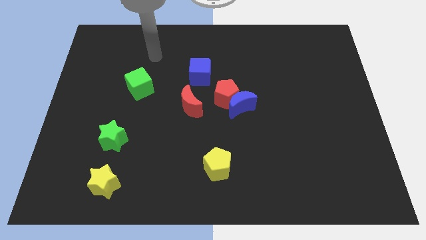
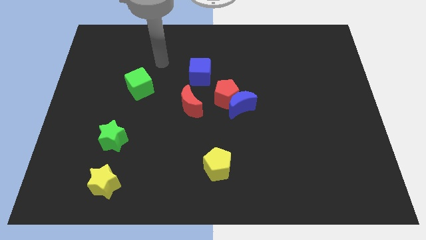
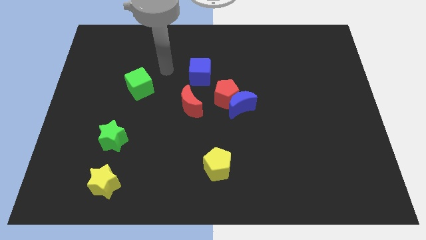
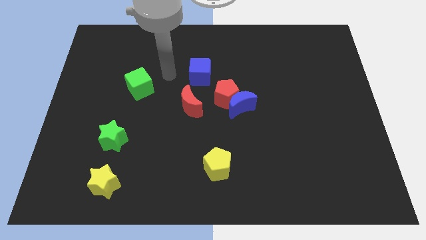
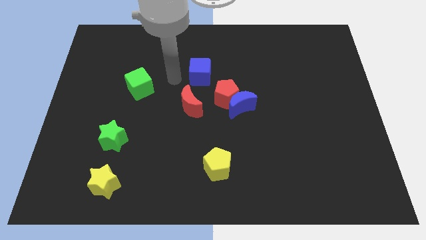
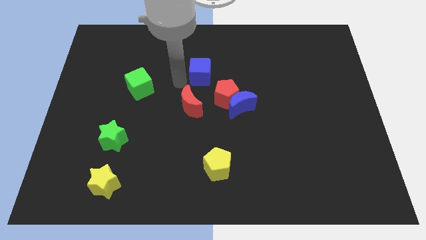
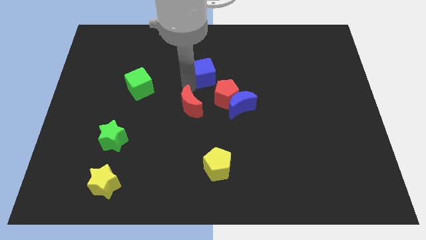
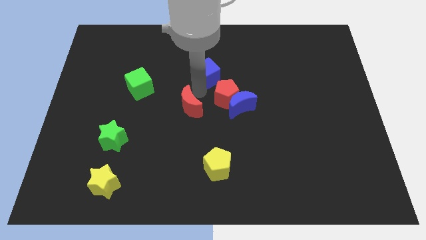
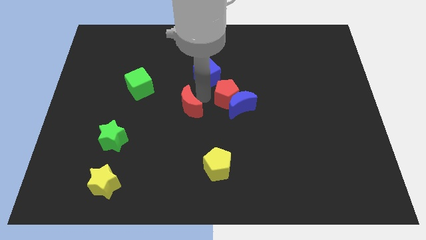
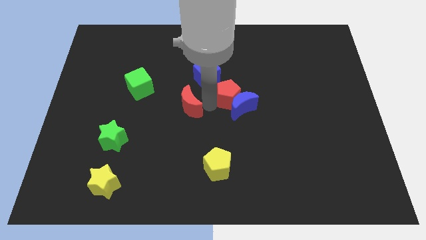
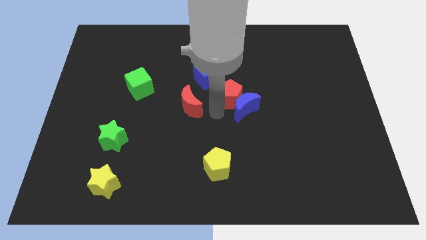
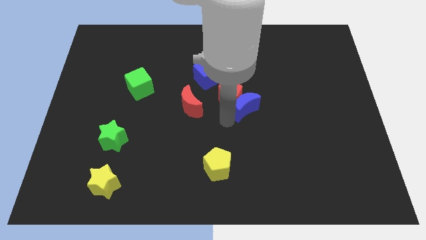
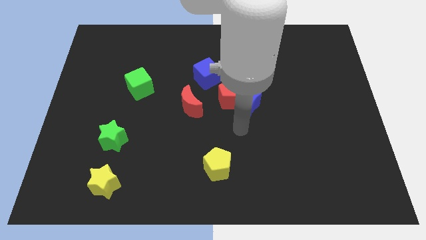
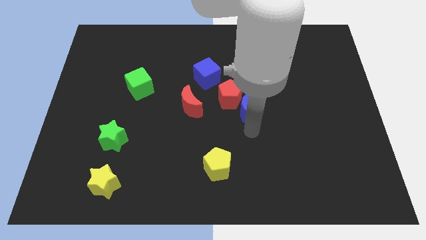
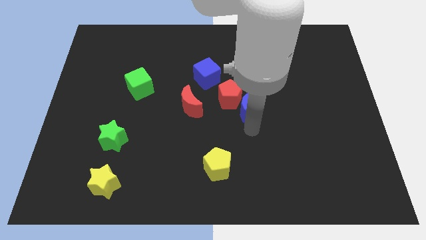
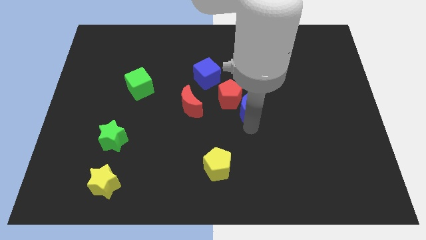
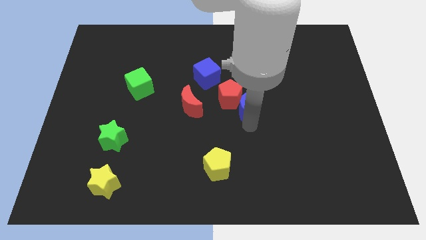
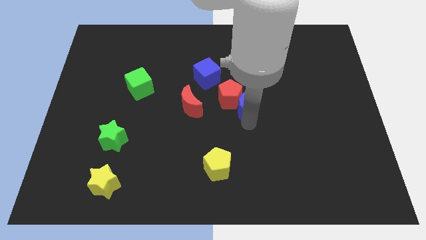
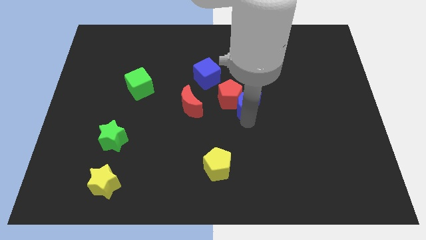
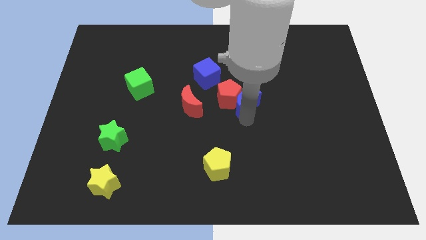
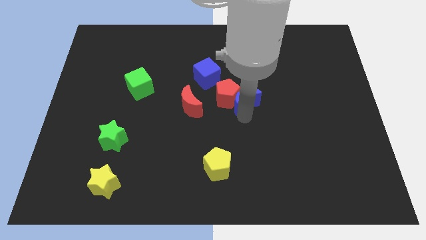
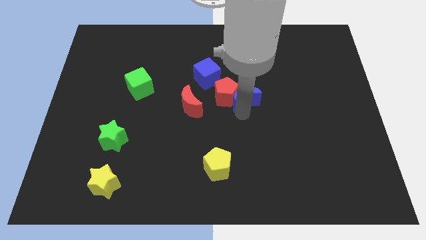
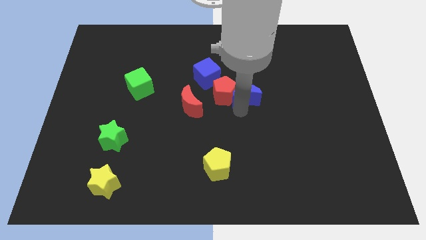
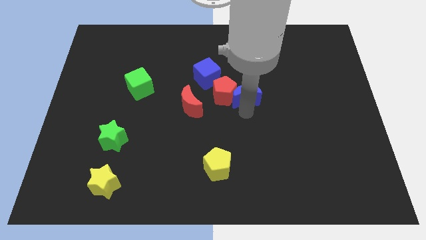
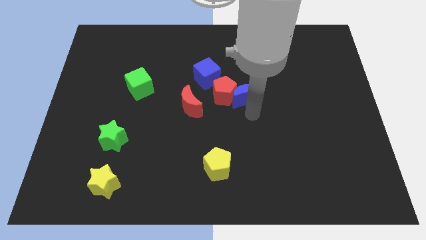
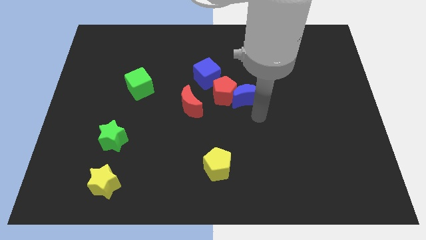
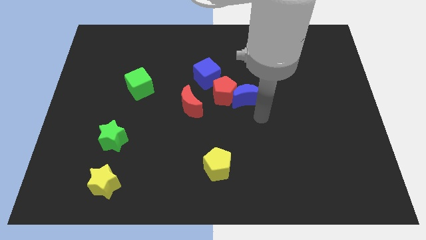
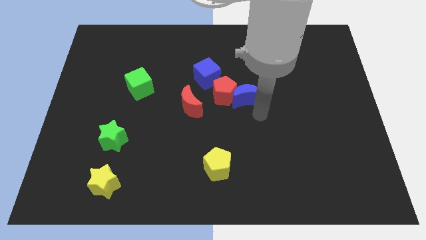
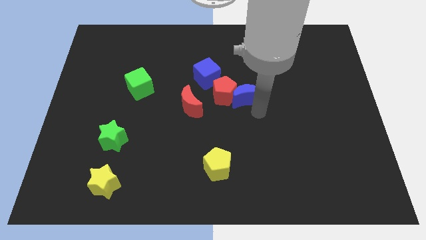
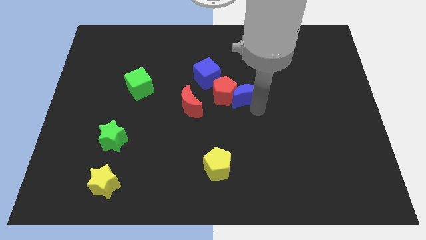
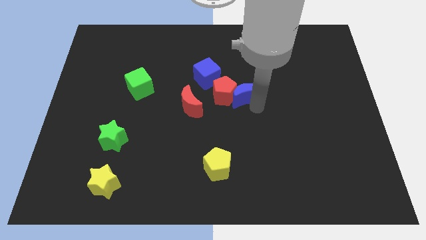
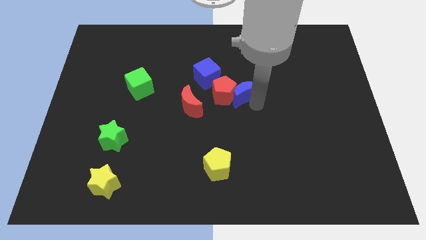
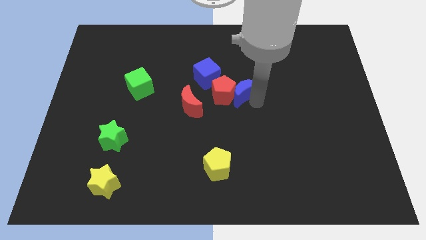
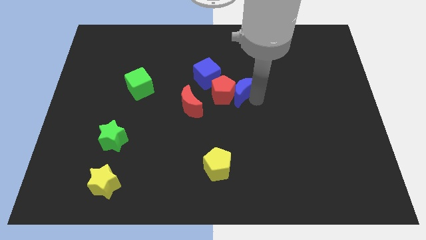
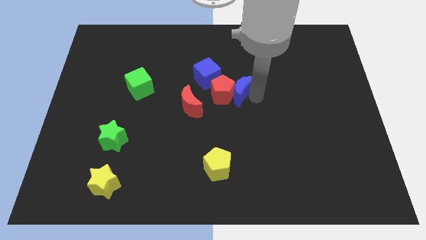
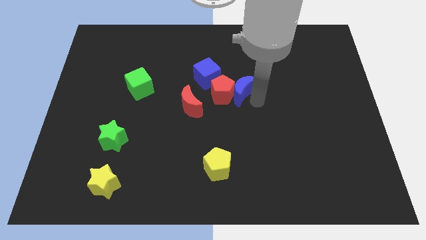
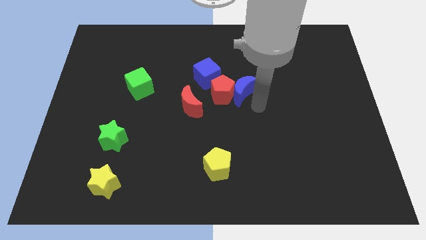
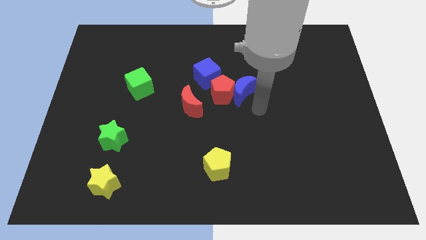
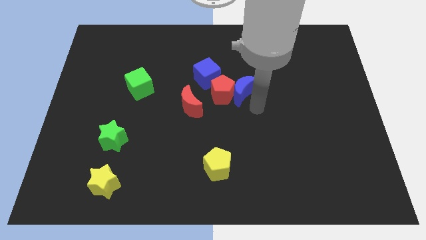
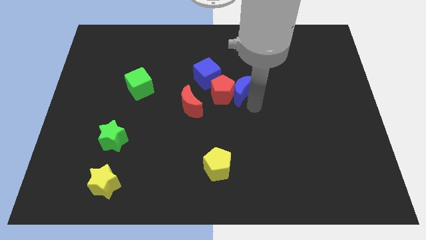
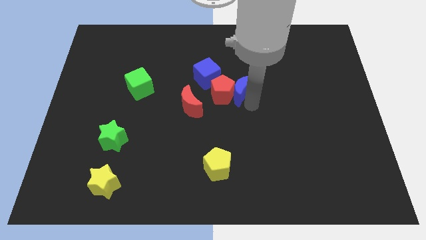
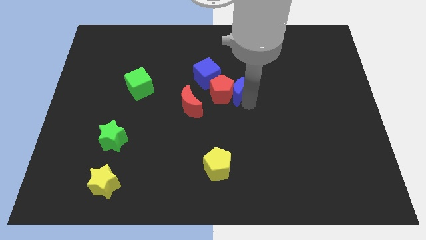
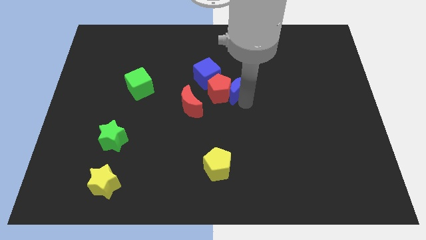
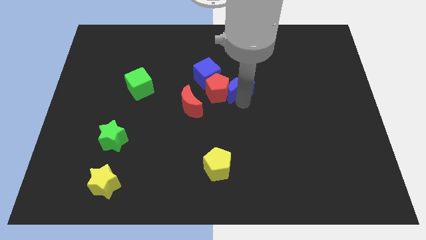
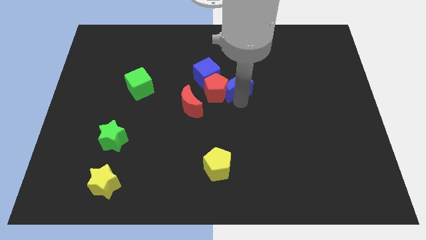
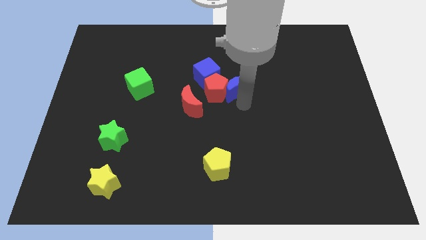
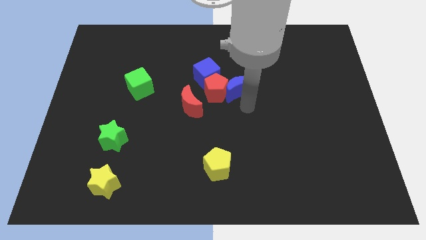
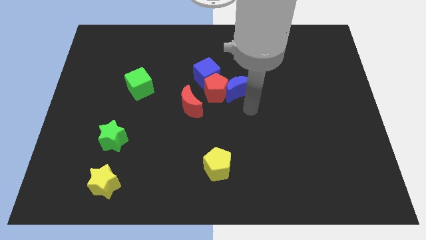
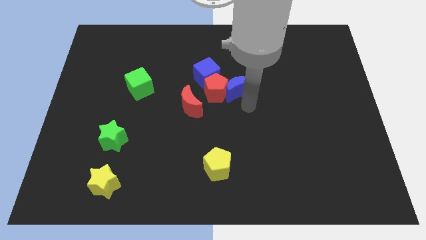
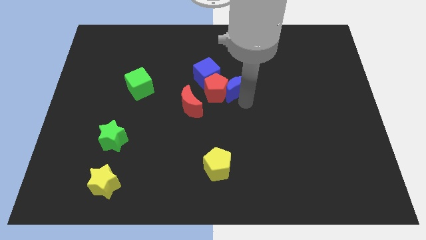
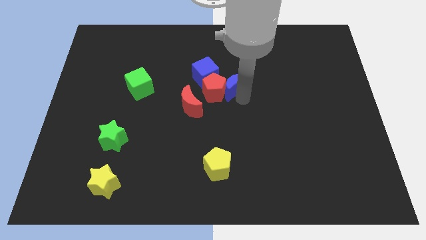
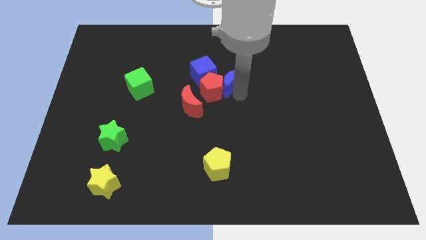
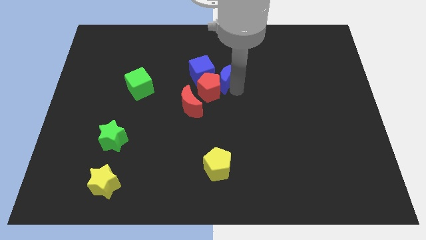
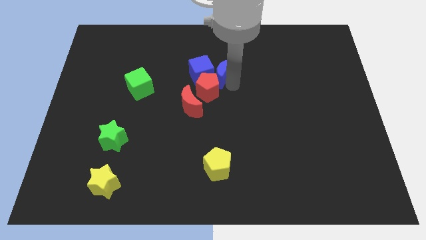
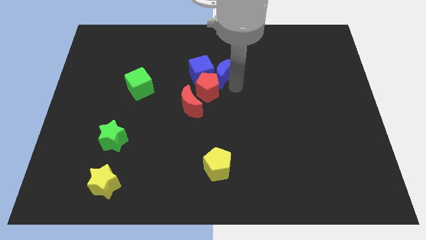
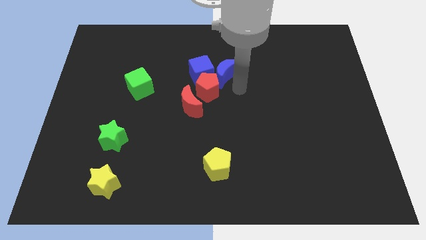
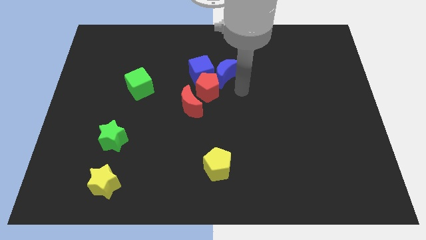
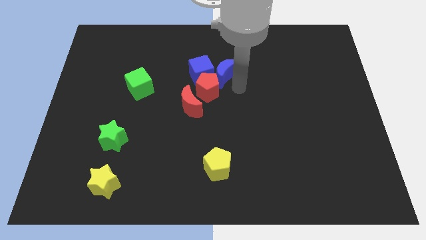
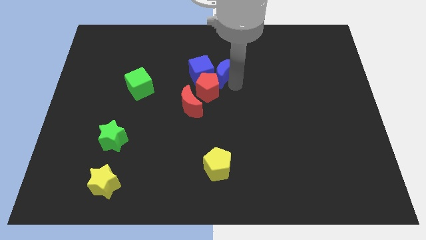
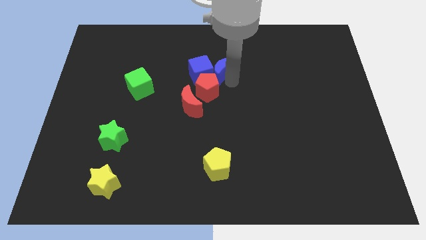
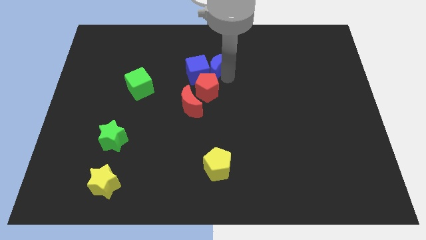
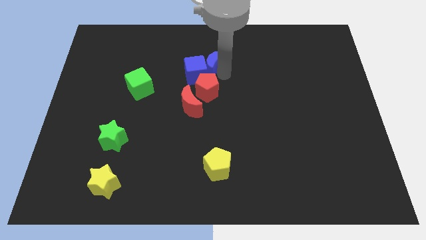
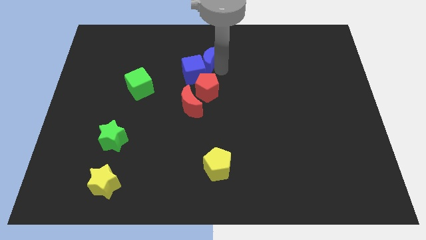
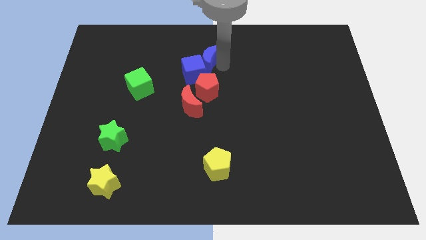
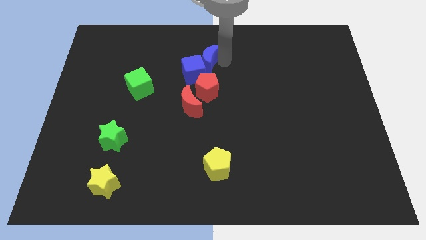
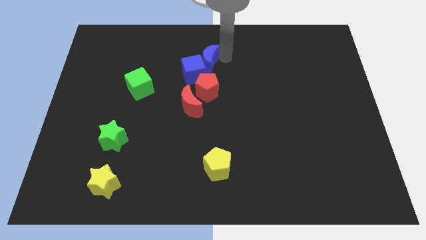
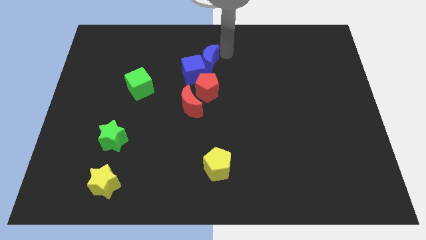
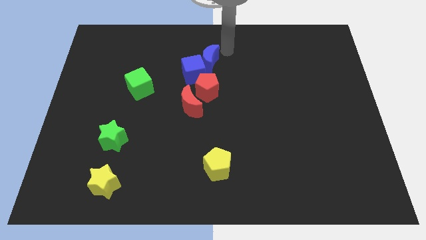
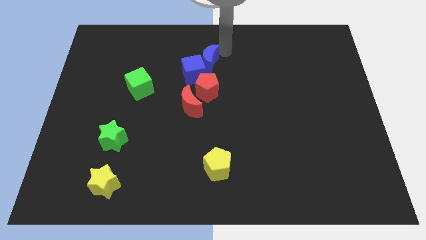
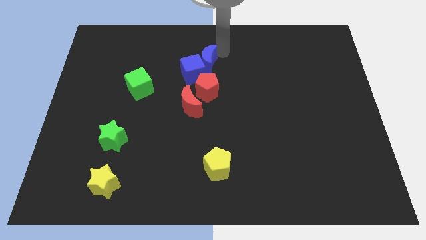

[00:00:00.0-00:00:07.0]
move the blue moon to the top side of the red moon
